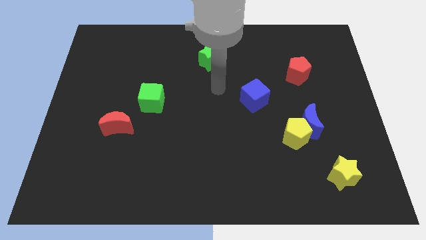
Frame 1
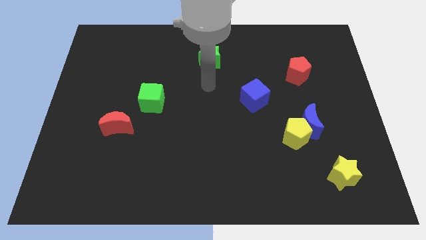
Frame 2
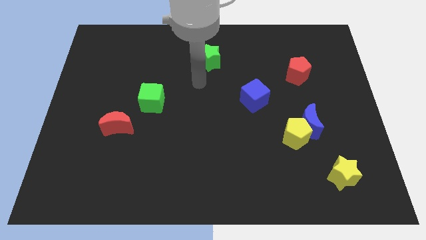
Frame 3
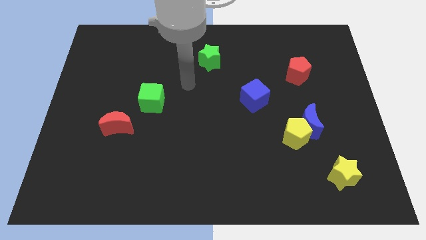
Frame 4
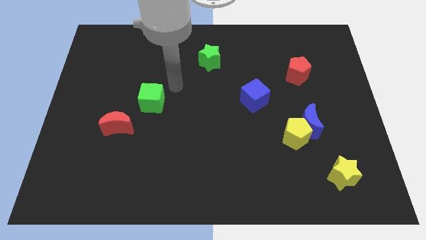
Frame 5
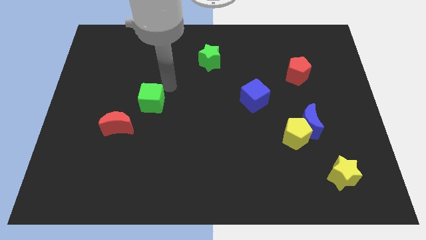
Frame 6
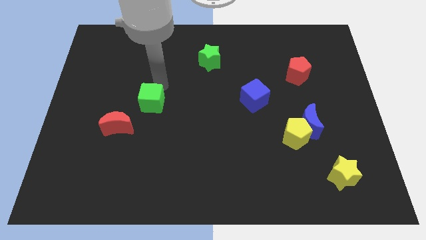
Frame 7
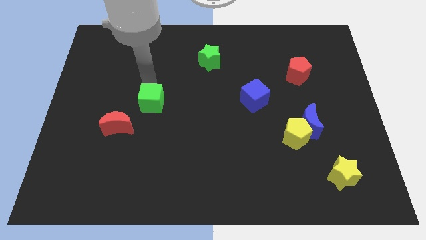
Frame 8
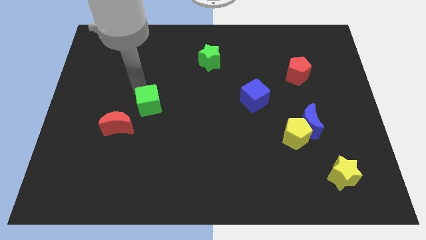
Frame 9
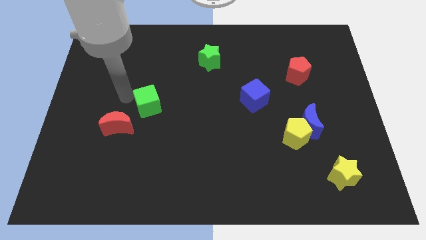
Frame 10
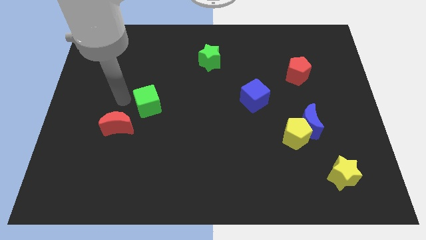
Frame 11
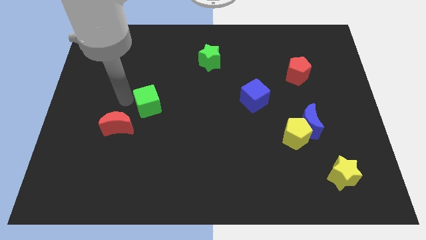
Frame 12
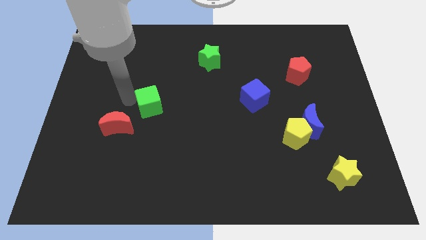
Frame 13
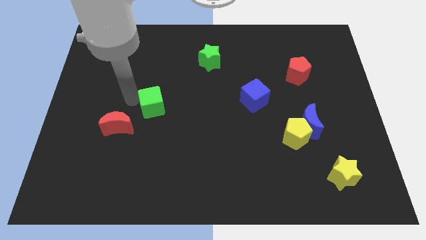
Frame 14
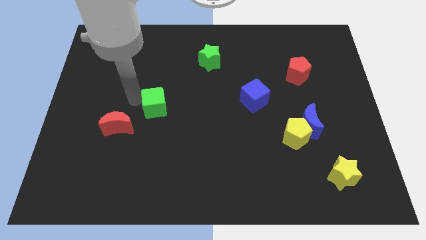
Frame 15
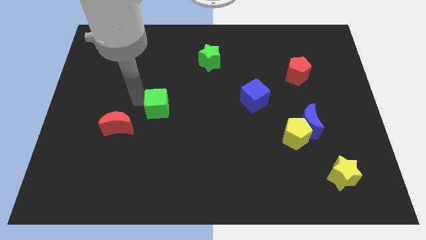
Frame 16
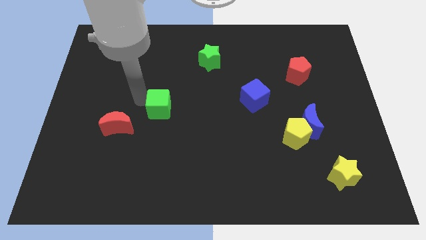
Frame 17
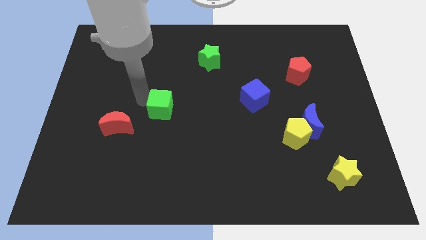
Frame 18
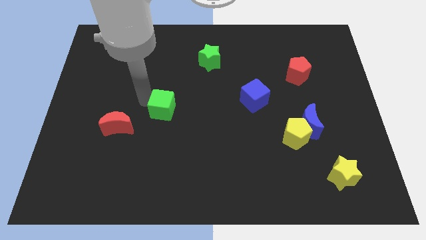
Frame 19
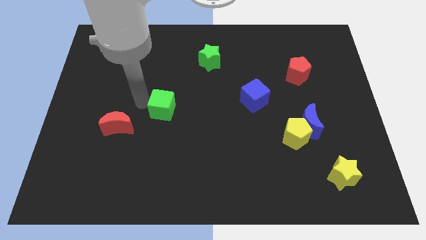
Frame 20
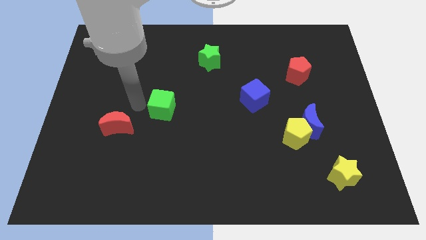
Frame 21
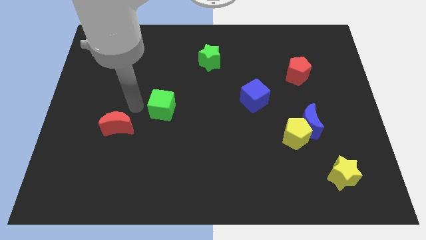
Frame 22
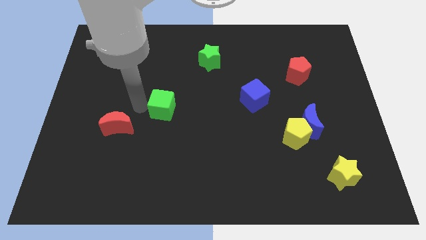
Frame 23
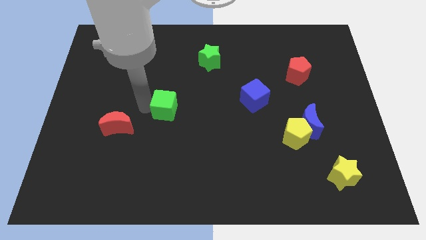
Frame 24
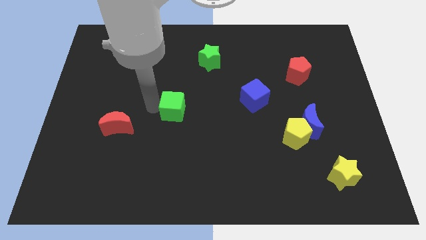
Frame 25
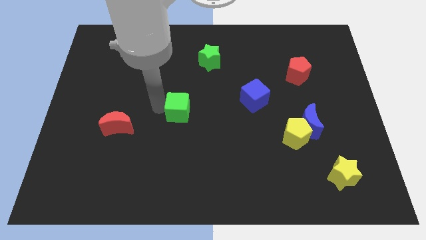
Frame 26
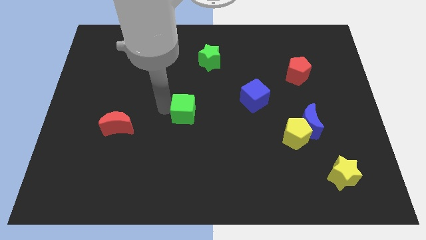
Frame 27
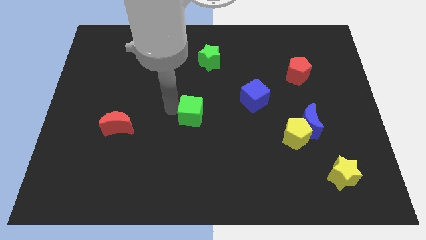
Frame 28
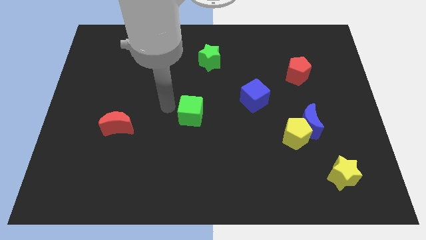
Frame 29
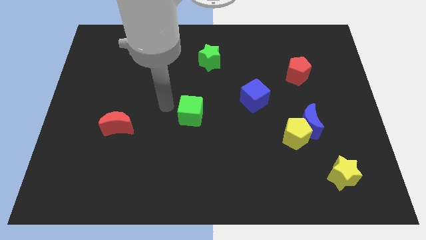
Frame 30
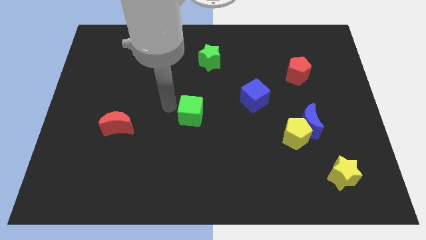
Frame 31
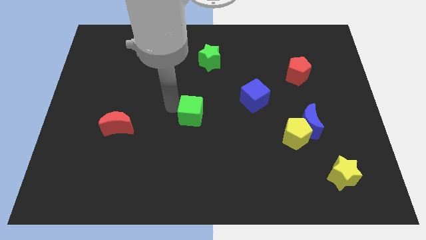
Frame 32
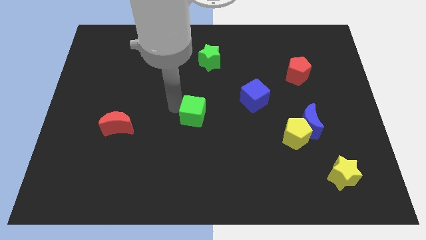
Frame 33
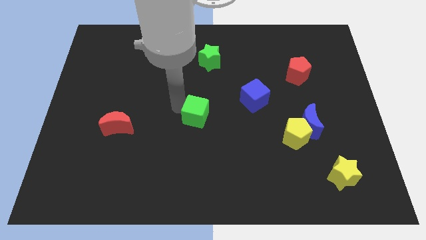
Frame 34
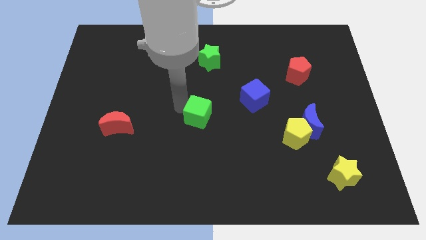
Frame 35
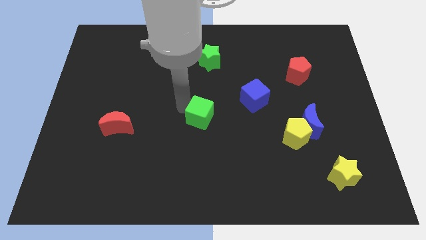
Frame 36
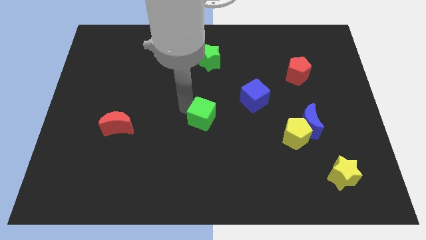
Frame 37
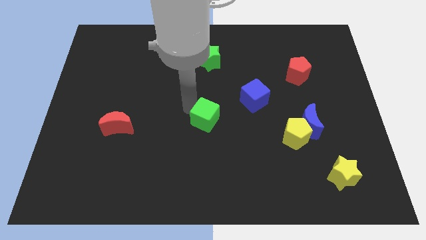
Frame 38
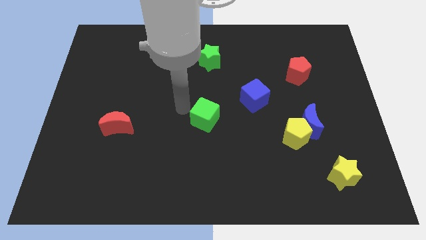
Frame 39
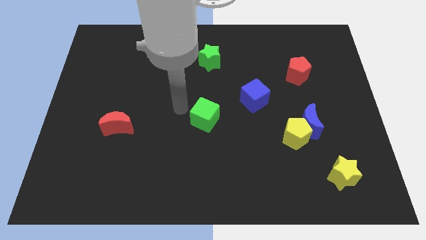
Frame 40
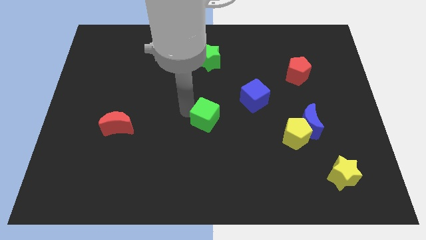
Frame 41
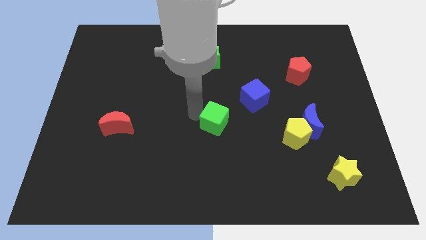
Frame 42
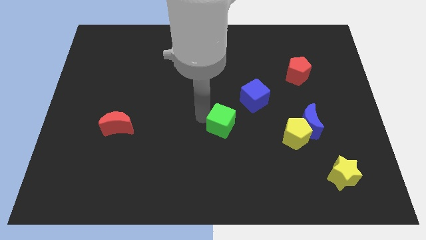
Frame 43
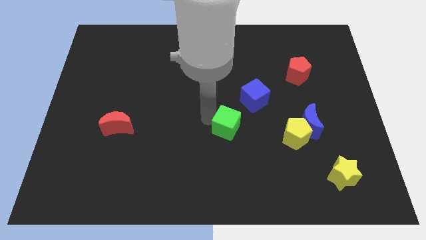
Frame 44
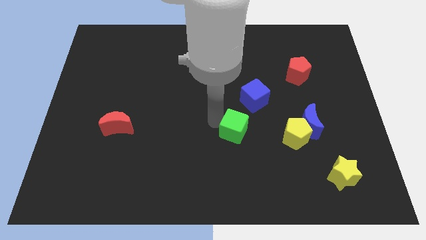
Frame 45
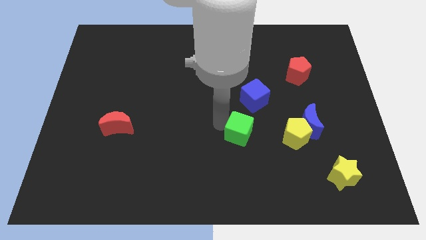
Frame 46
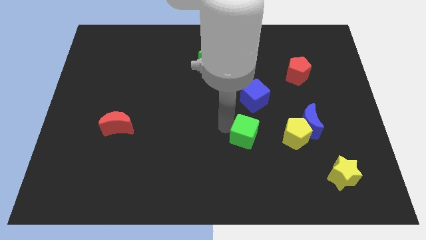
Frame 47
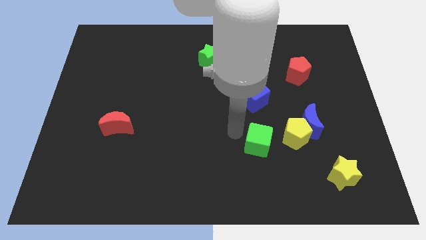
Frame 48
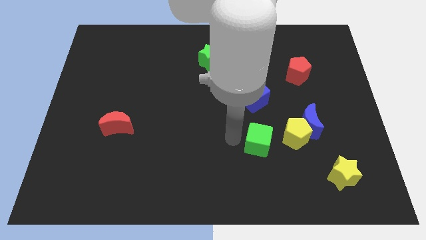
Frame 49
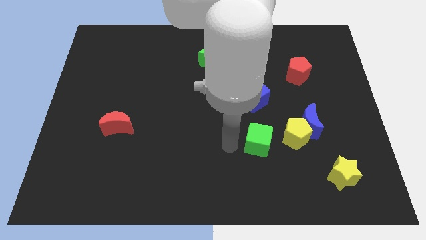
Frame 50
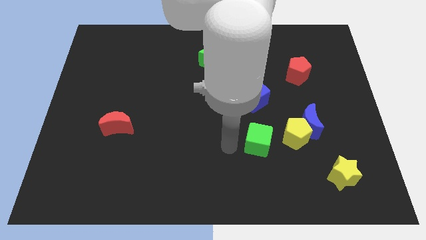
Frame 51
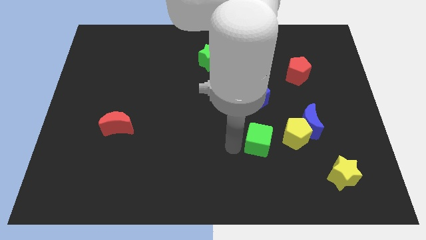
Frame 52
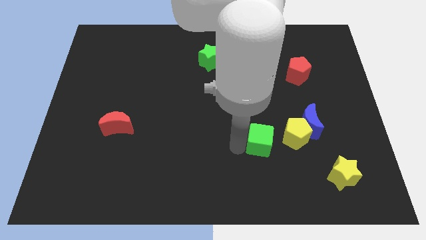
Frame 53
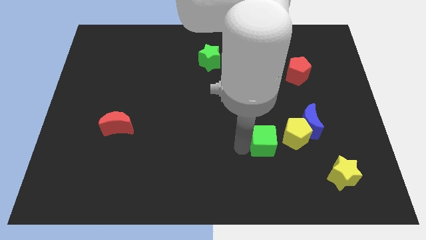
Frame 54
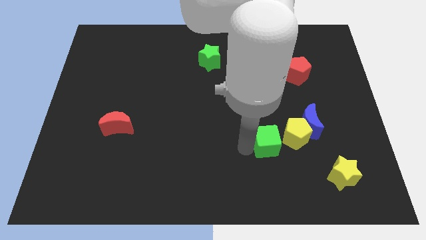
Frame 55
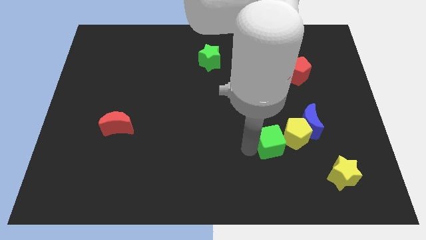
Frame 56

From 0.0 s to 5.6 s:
push the green cube to the yellow pentagon

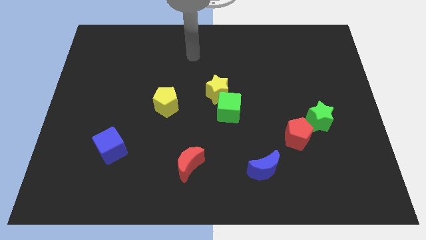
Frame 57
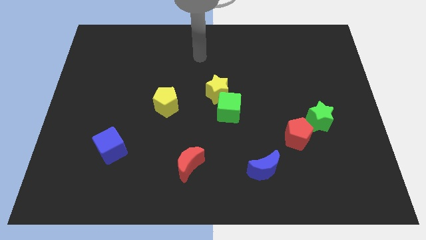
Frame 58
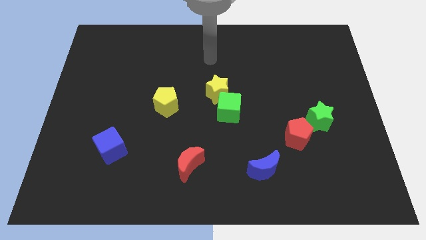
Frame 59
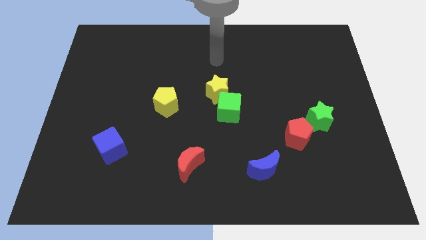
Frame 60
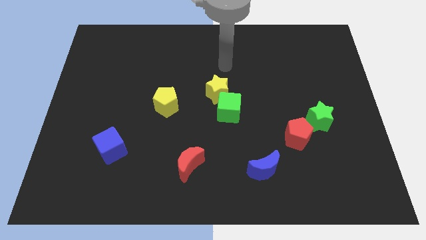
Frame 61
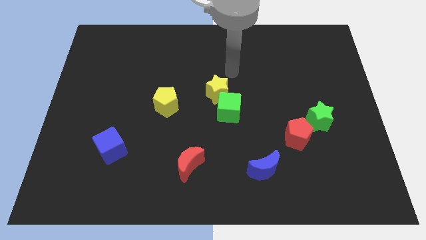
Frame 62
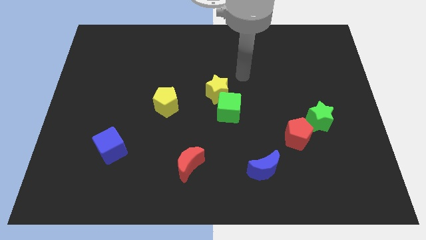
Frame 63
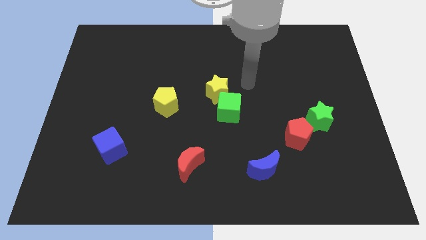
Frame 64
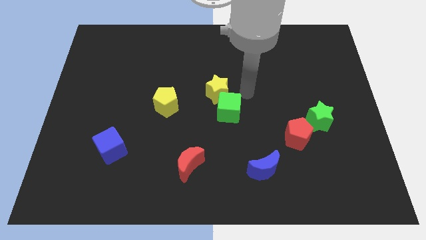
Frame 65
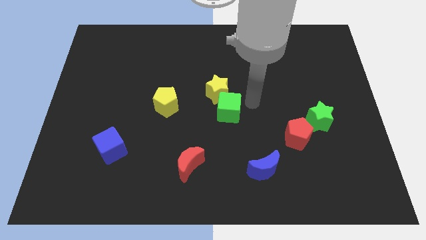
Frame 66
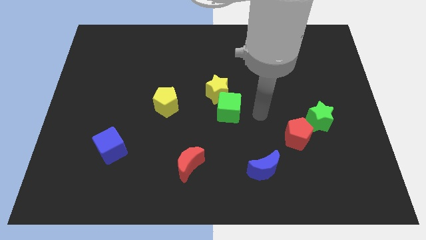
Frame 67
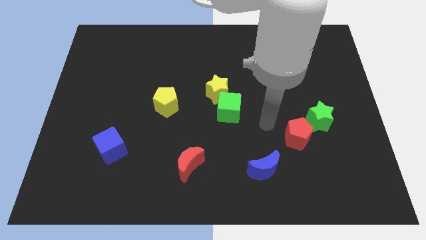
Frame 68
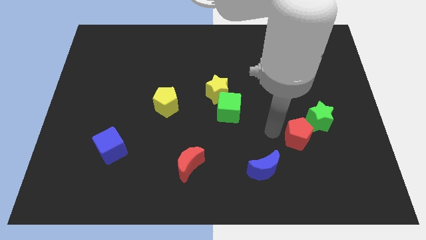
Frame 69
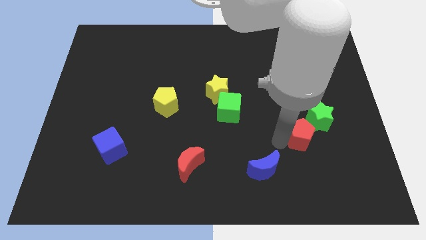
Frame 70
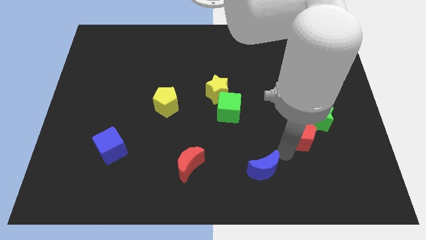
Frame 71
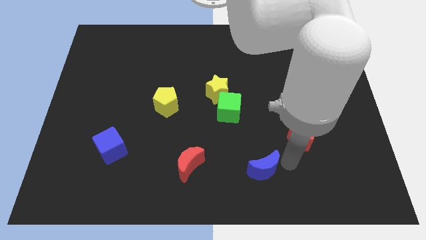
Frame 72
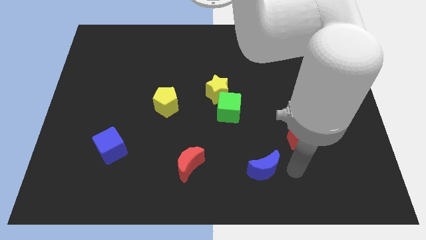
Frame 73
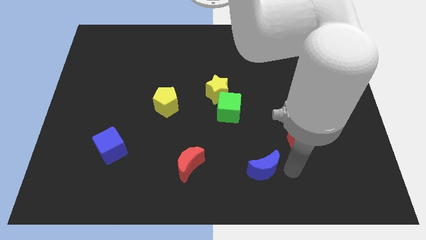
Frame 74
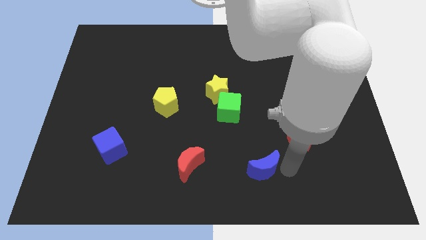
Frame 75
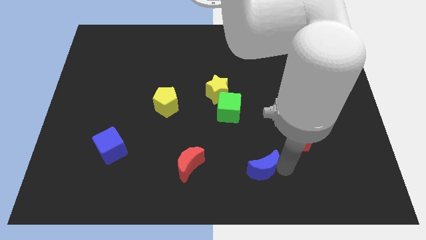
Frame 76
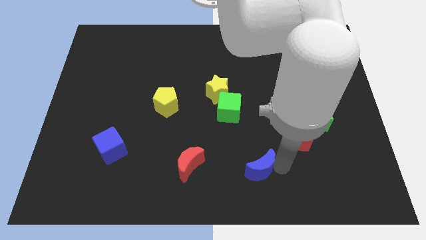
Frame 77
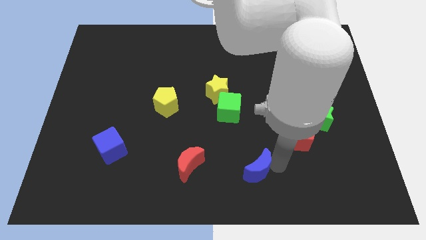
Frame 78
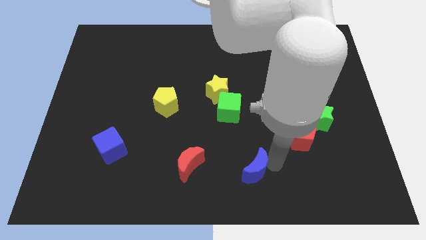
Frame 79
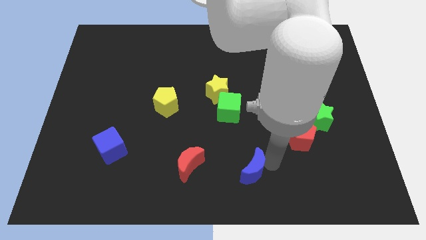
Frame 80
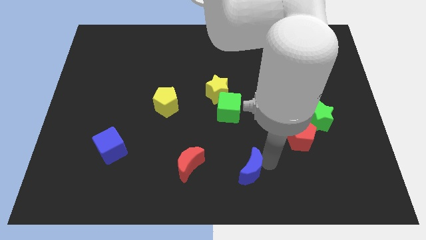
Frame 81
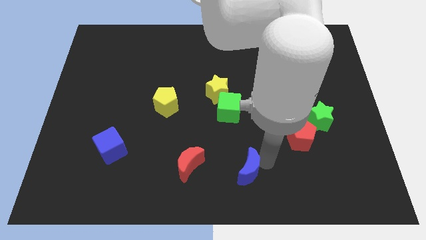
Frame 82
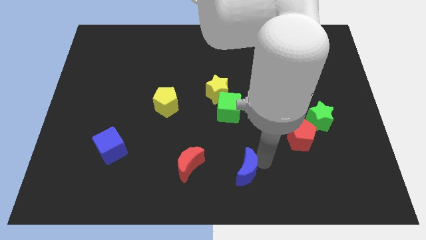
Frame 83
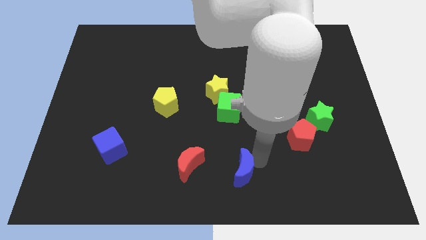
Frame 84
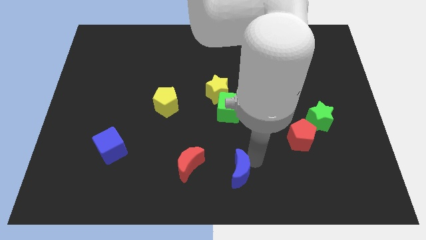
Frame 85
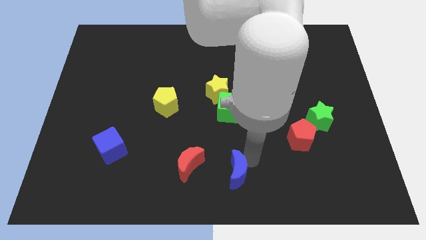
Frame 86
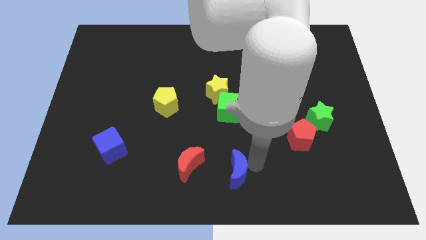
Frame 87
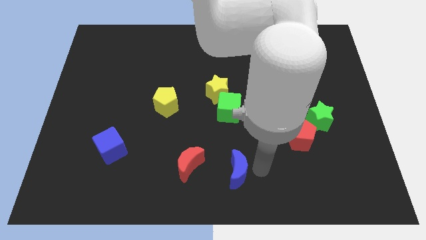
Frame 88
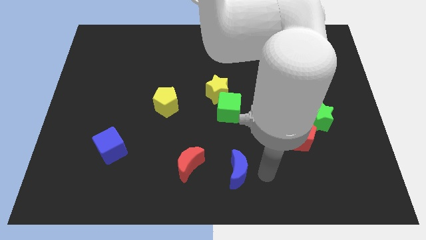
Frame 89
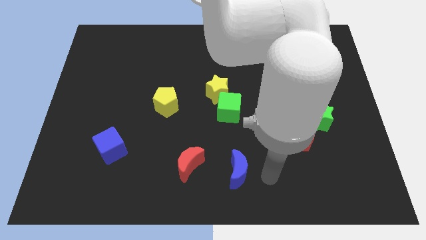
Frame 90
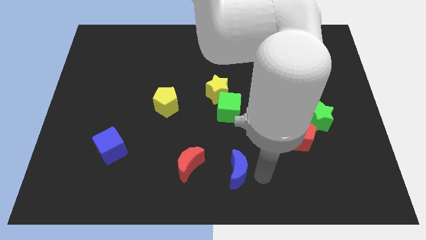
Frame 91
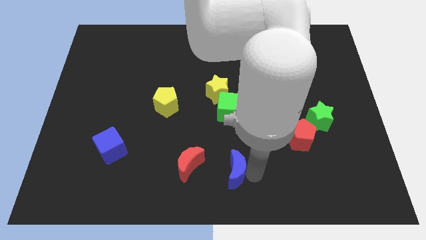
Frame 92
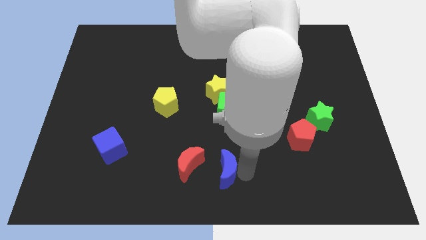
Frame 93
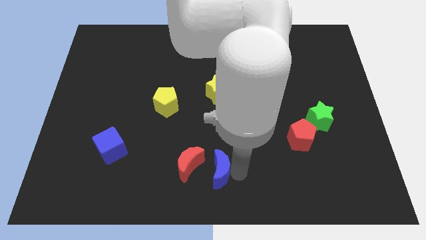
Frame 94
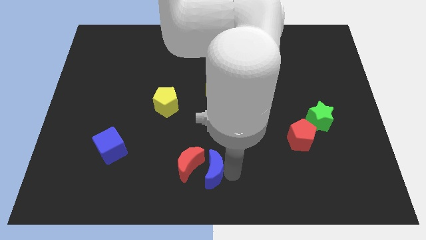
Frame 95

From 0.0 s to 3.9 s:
push the blue moon close to the red moon
